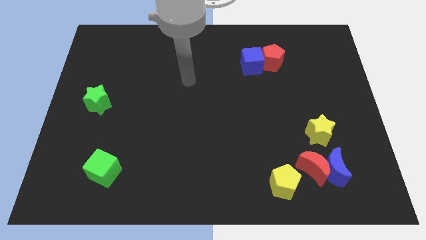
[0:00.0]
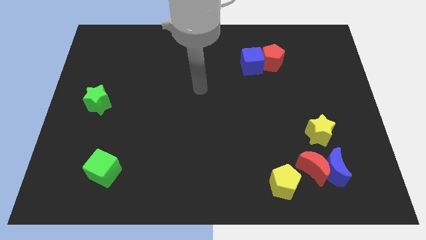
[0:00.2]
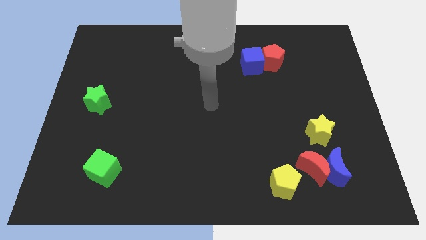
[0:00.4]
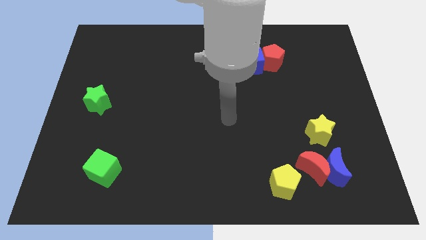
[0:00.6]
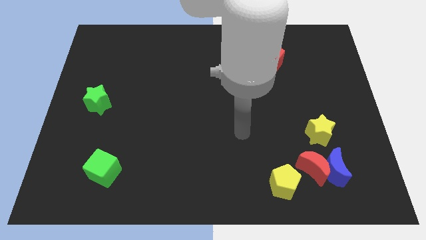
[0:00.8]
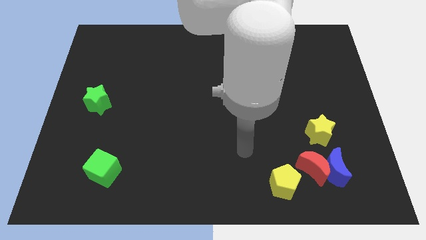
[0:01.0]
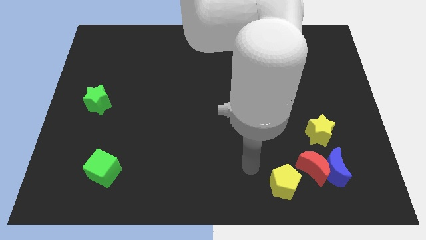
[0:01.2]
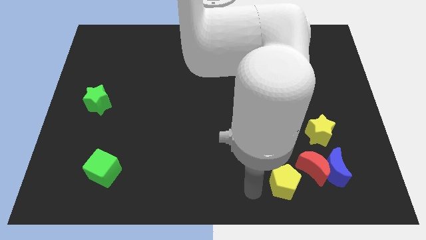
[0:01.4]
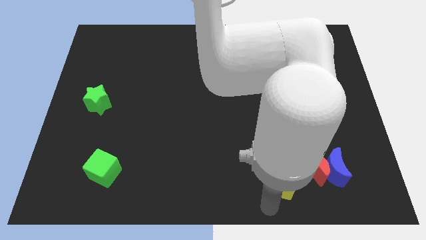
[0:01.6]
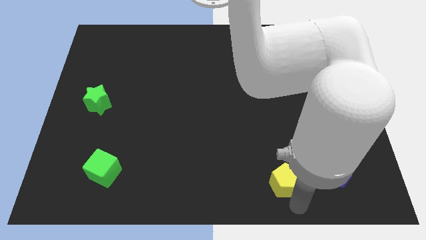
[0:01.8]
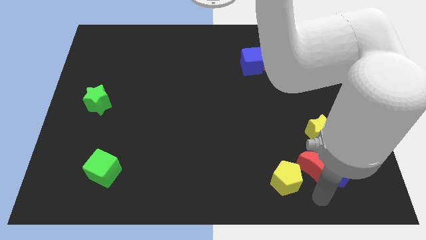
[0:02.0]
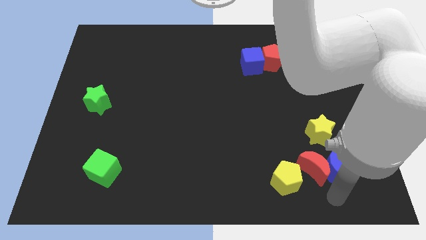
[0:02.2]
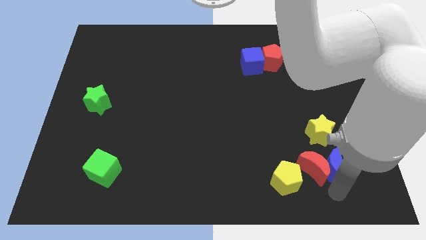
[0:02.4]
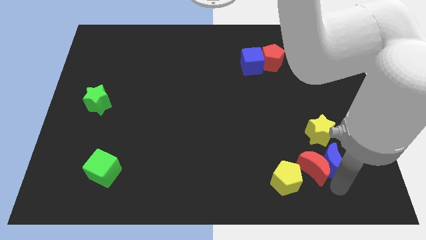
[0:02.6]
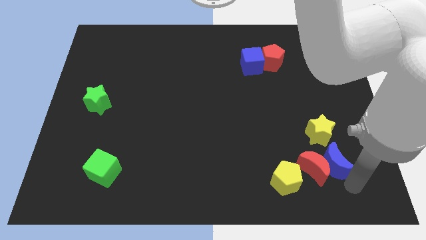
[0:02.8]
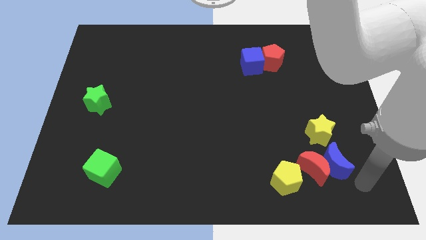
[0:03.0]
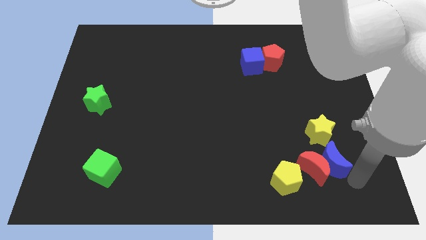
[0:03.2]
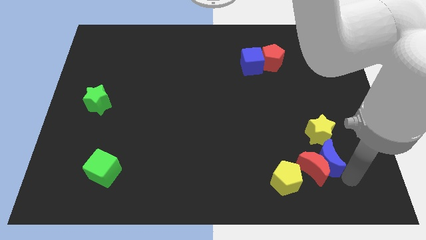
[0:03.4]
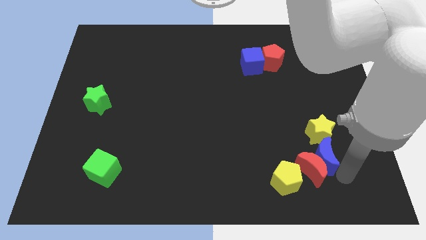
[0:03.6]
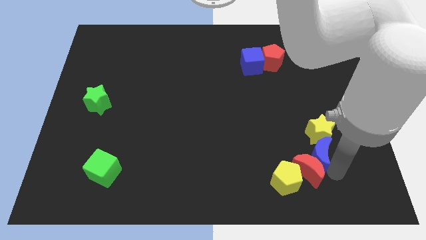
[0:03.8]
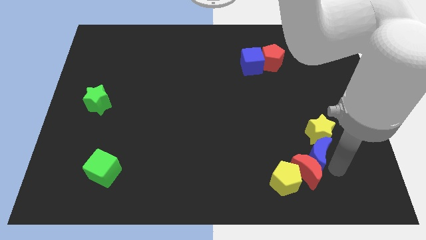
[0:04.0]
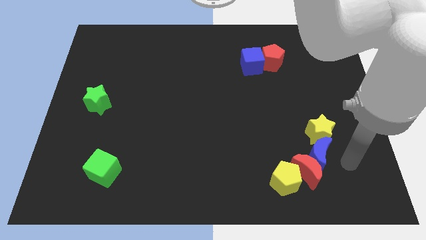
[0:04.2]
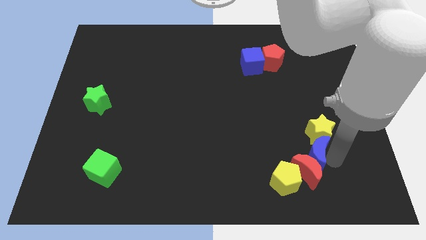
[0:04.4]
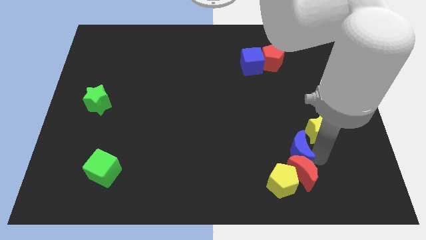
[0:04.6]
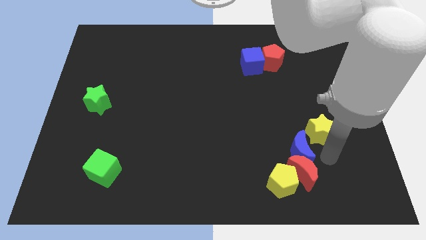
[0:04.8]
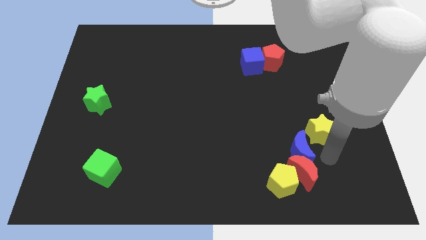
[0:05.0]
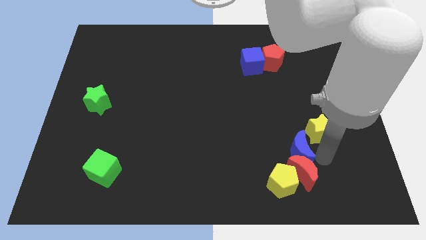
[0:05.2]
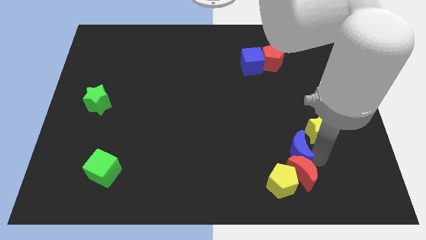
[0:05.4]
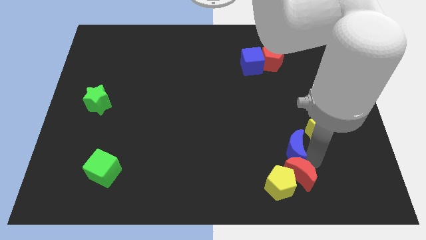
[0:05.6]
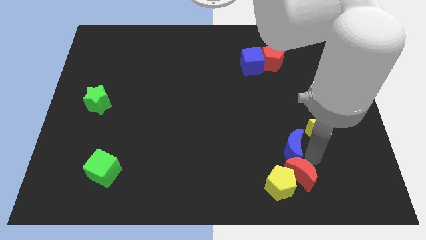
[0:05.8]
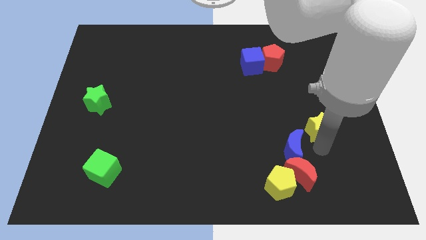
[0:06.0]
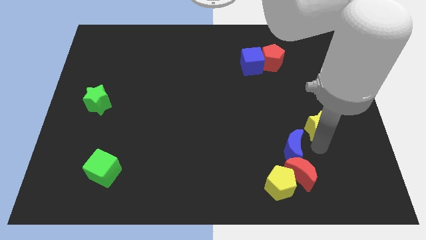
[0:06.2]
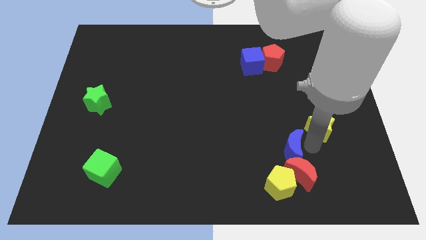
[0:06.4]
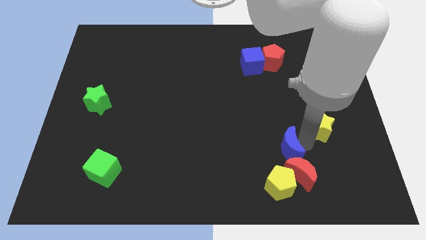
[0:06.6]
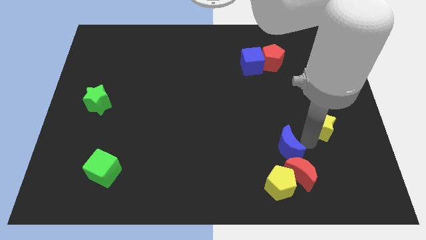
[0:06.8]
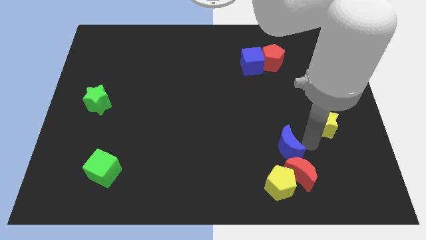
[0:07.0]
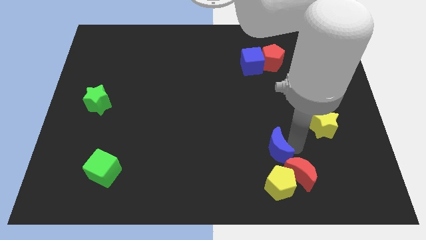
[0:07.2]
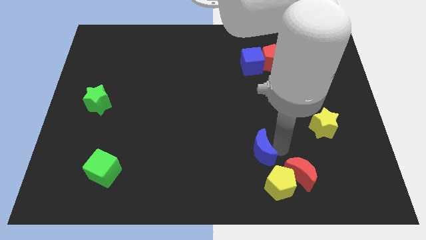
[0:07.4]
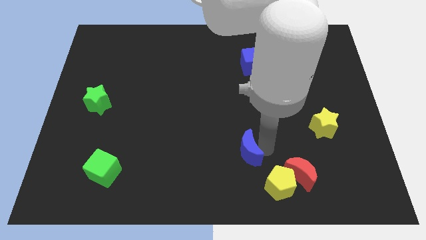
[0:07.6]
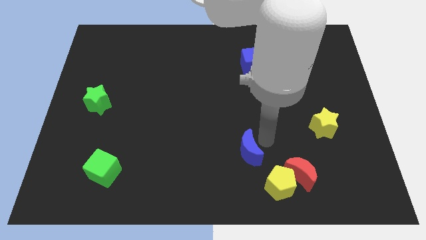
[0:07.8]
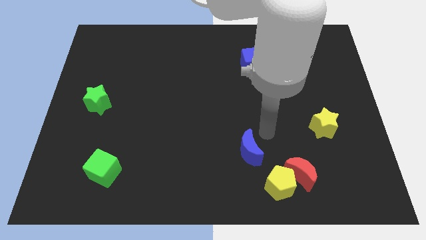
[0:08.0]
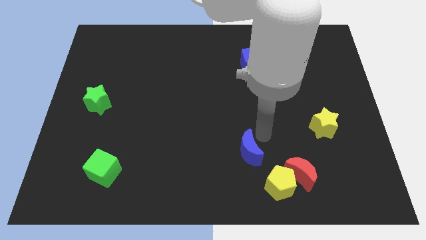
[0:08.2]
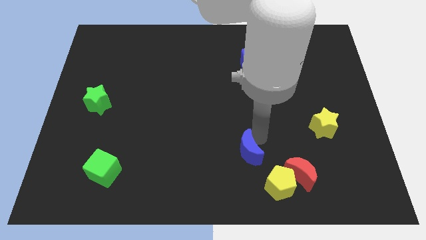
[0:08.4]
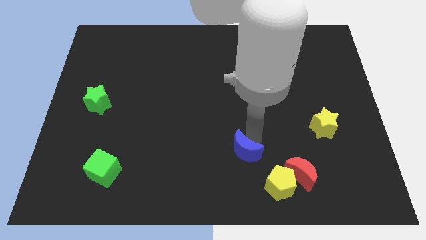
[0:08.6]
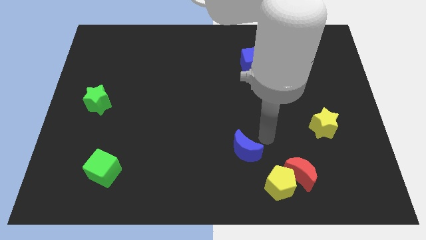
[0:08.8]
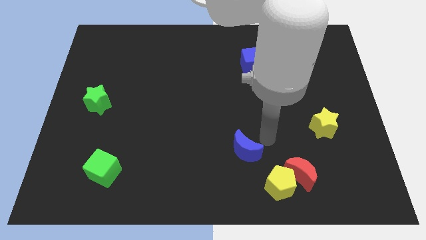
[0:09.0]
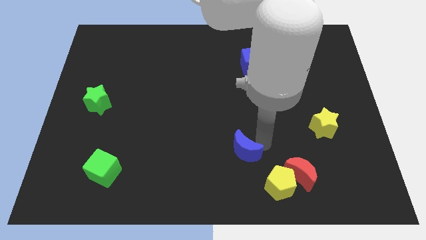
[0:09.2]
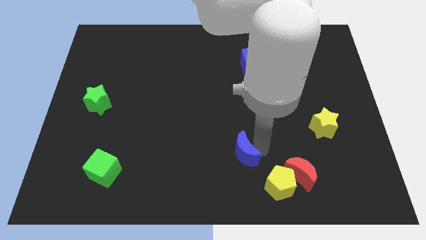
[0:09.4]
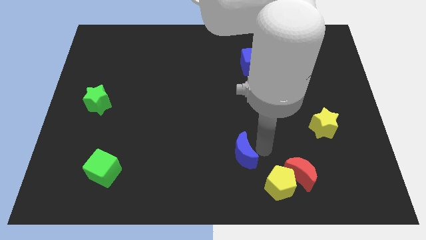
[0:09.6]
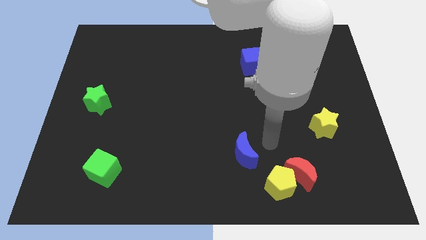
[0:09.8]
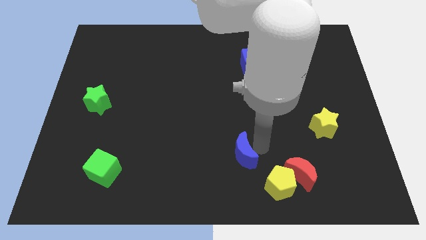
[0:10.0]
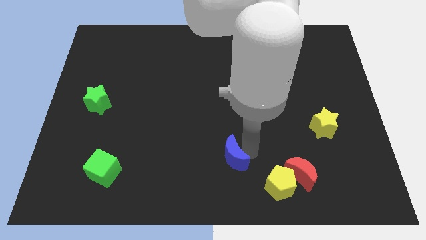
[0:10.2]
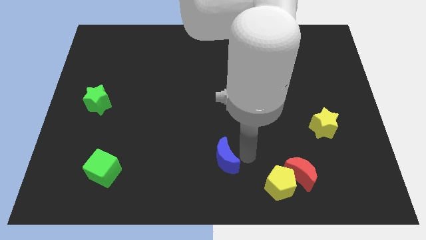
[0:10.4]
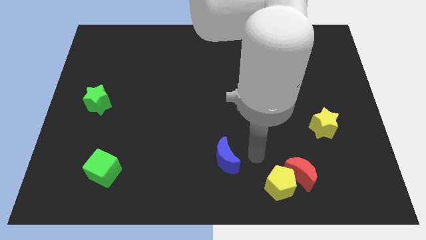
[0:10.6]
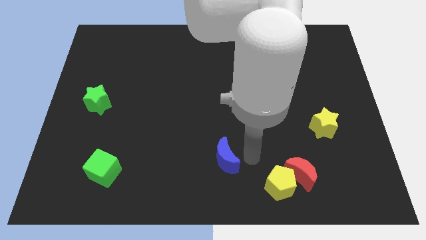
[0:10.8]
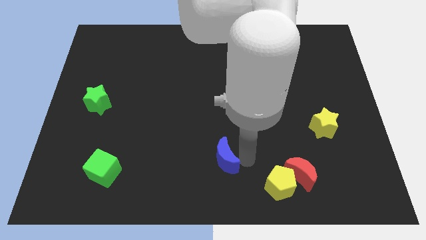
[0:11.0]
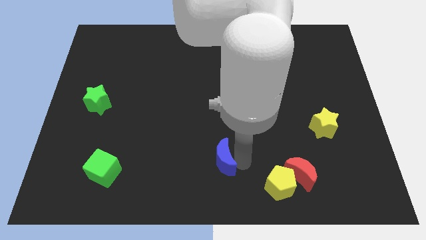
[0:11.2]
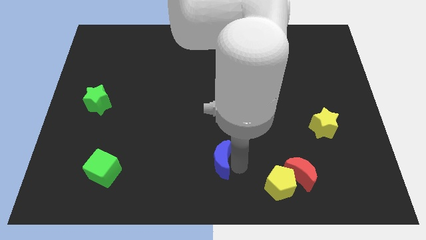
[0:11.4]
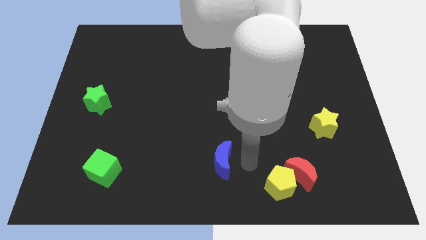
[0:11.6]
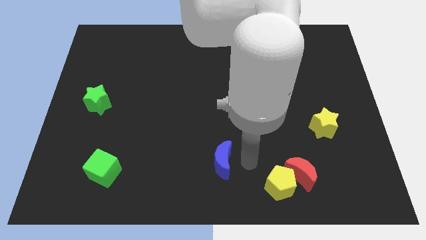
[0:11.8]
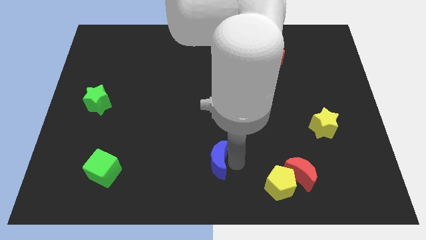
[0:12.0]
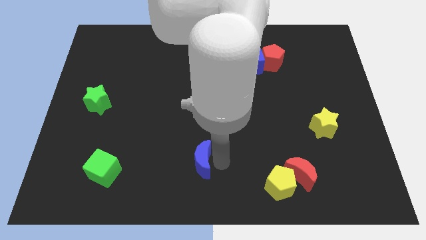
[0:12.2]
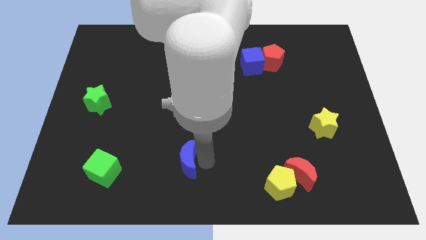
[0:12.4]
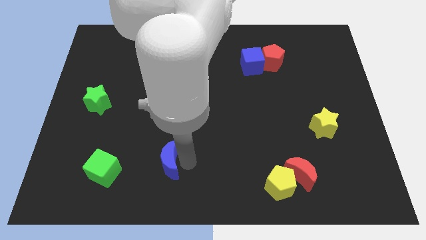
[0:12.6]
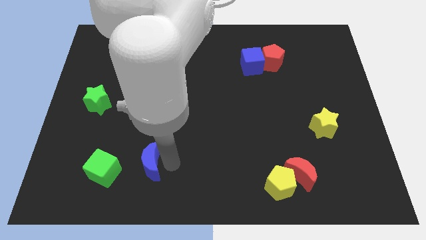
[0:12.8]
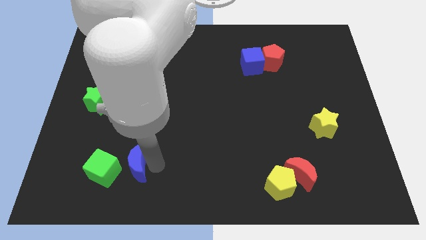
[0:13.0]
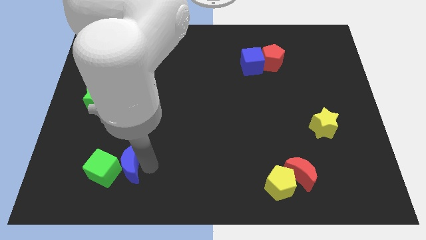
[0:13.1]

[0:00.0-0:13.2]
put the blue moon towards the green cube
